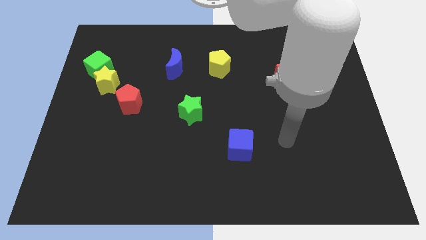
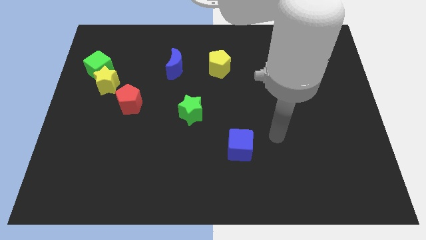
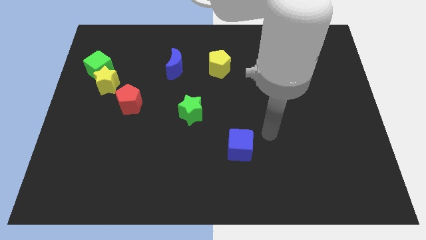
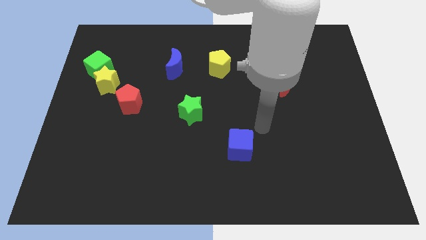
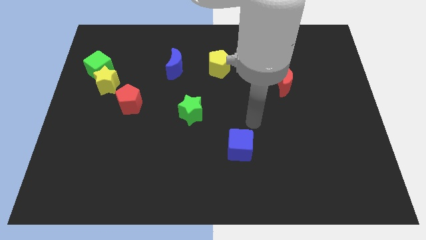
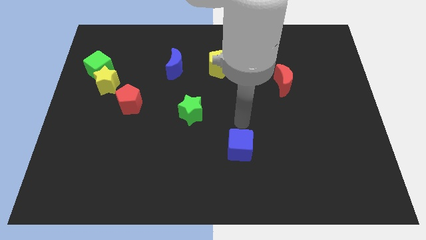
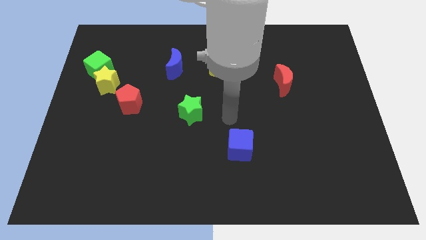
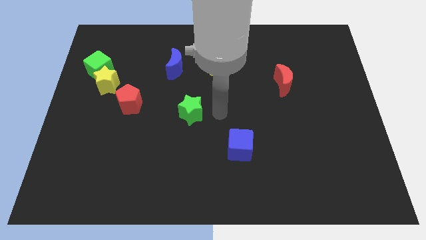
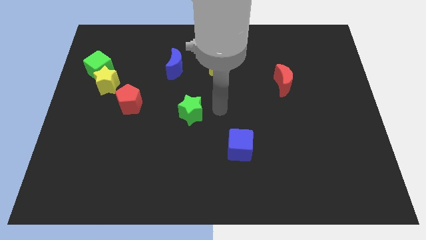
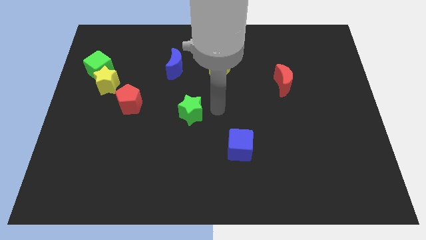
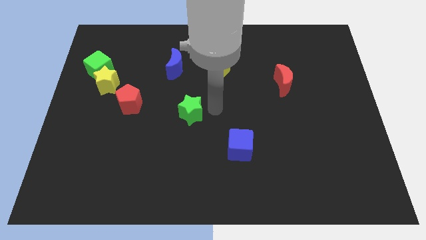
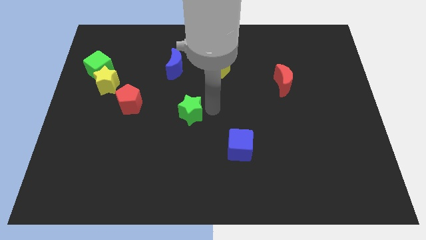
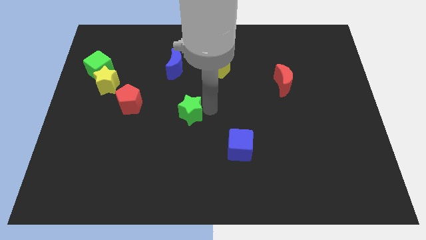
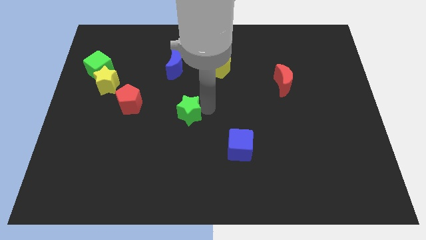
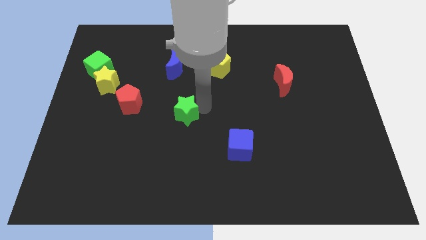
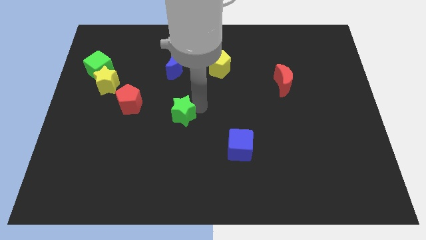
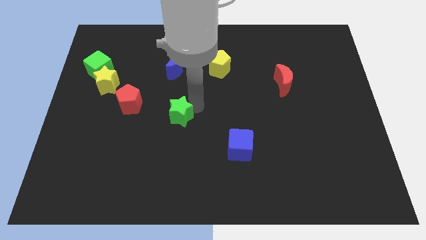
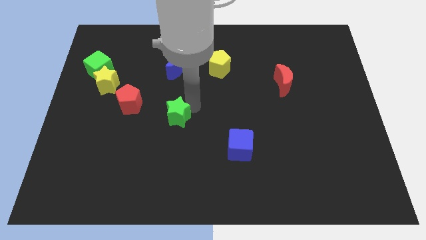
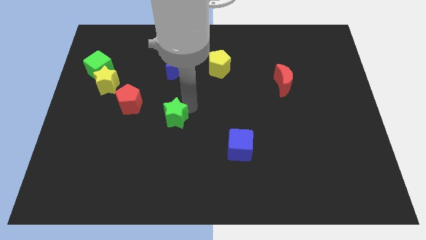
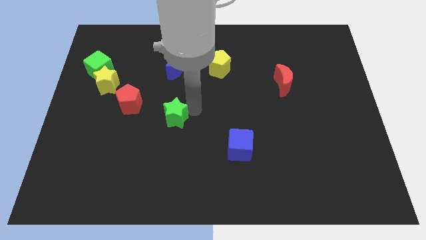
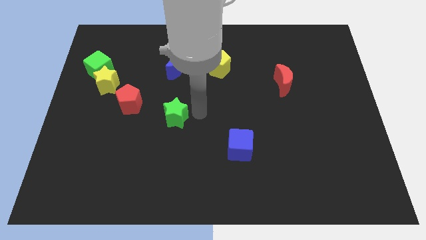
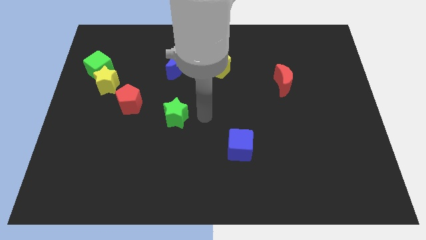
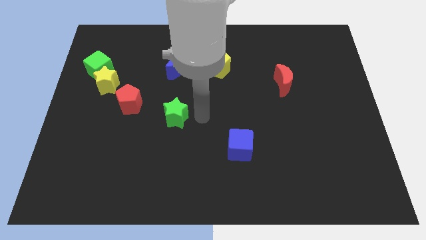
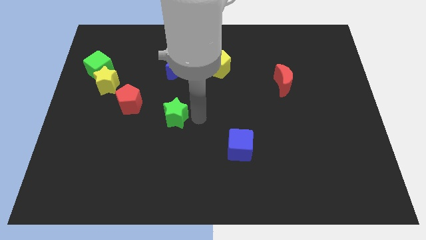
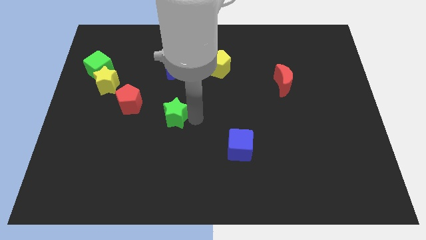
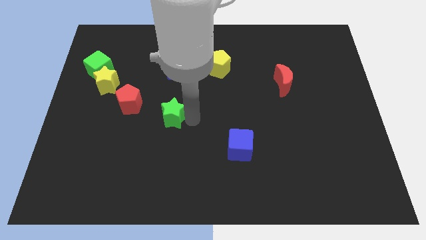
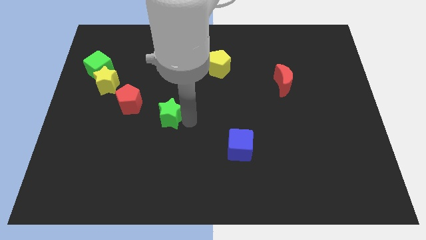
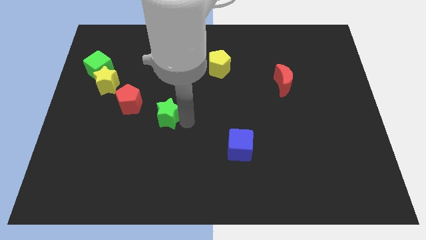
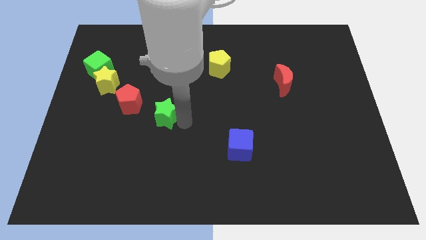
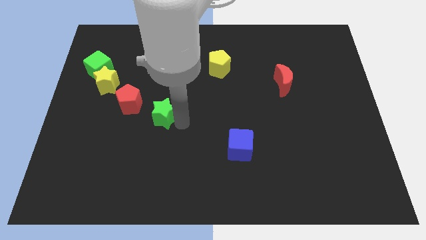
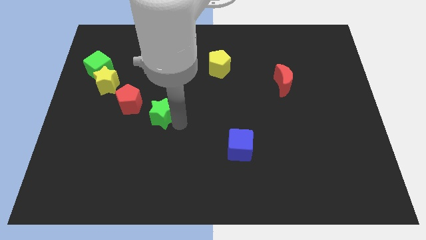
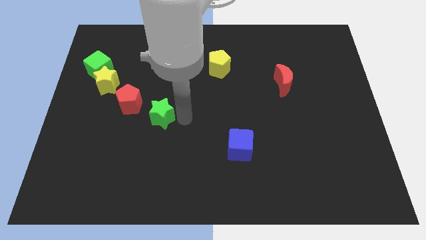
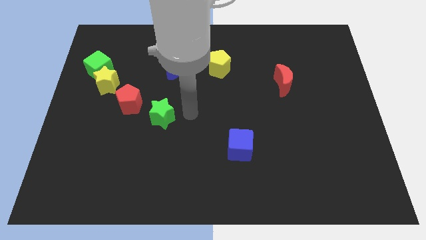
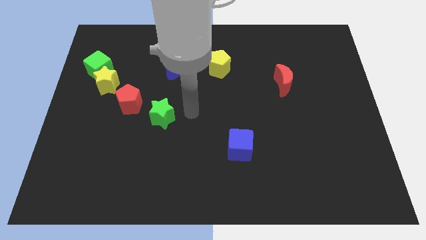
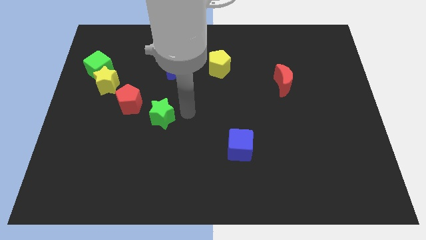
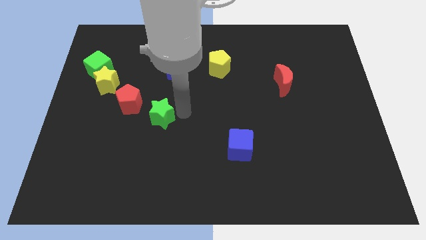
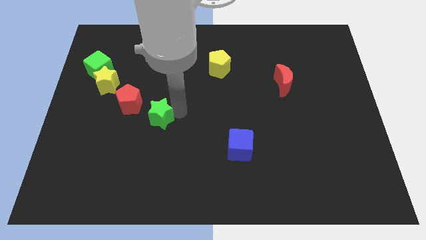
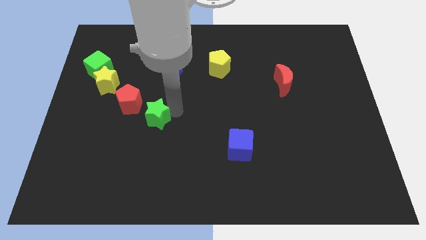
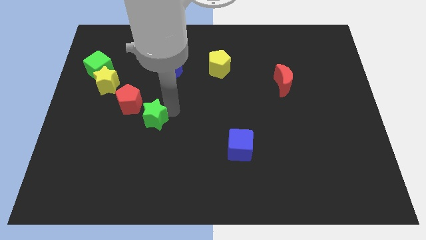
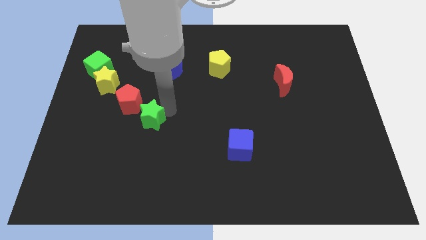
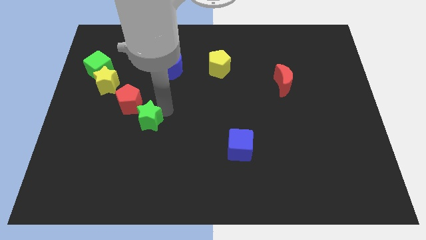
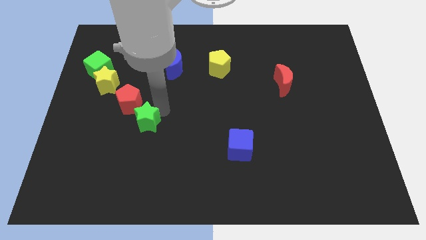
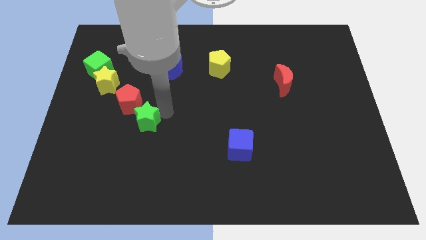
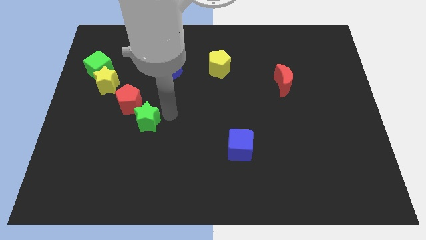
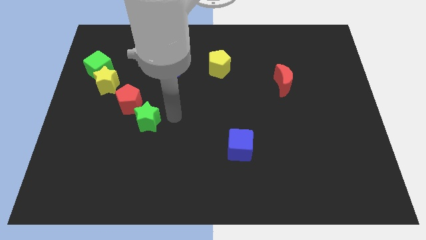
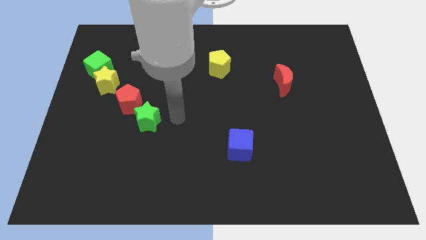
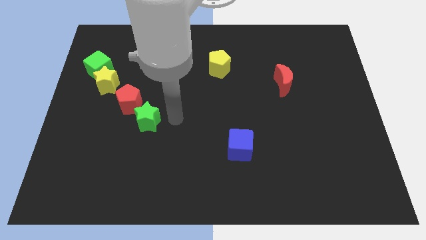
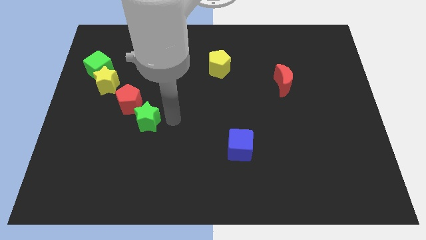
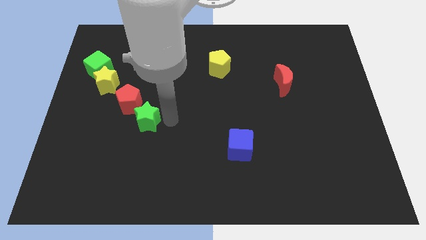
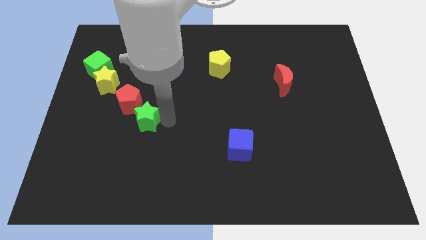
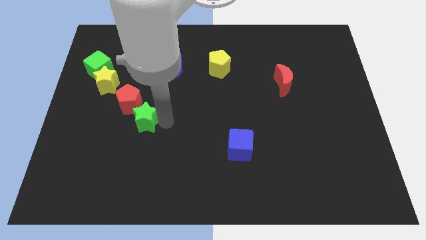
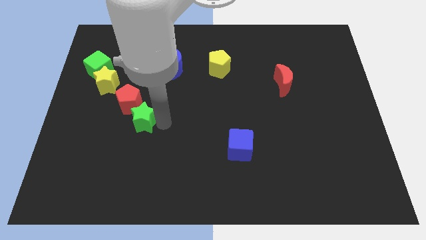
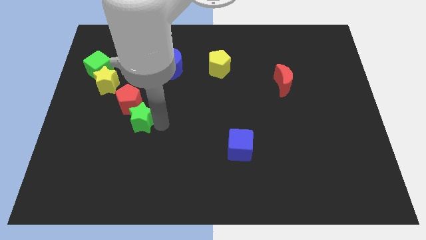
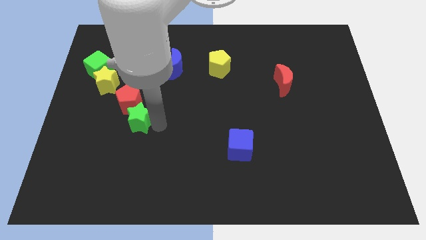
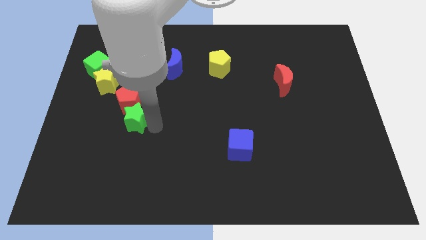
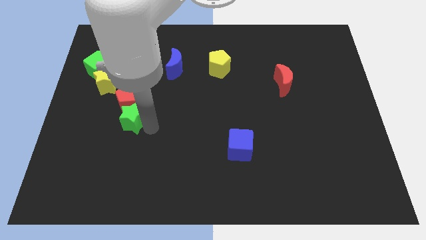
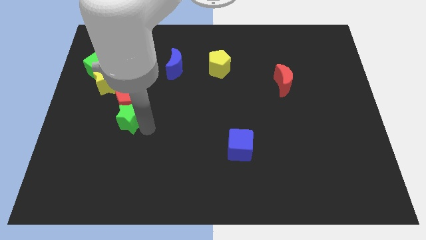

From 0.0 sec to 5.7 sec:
push the green star diagonally down and to the left of the red pentagon

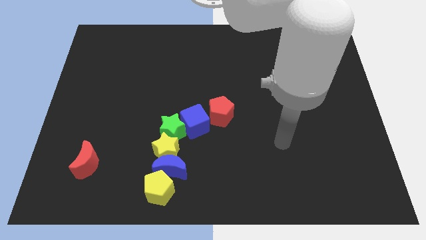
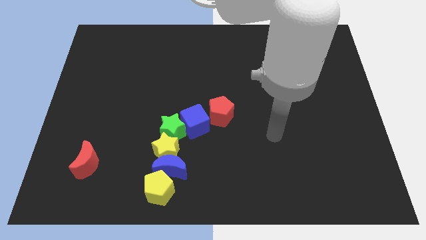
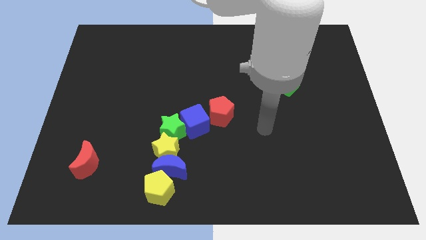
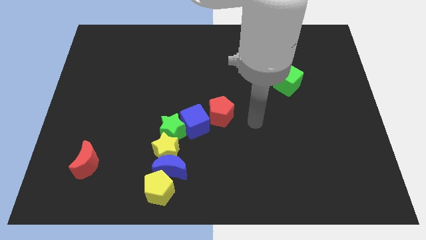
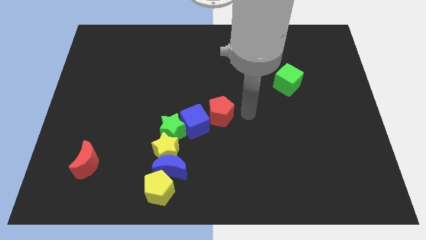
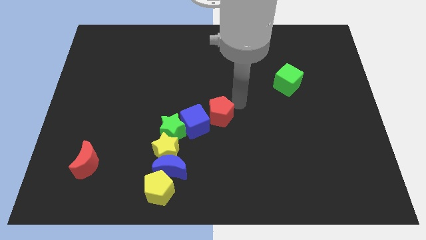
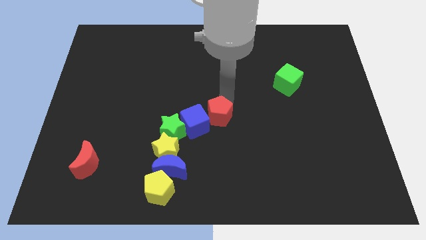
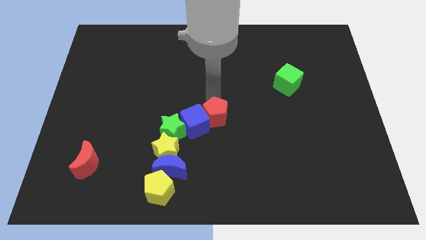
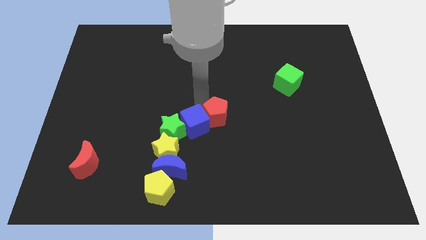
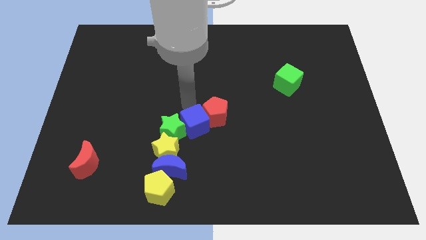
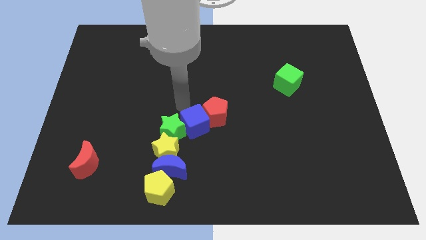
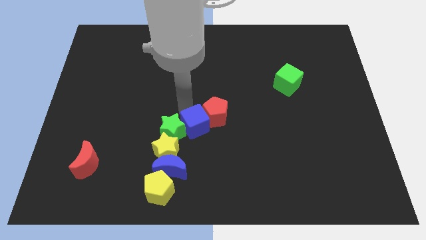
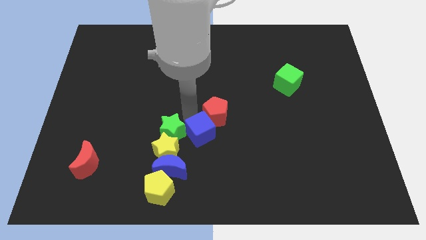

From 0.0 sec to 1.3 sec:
slide the blue cube below the red pentagon

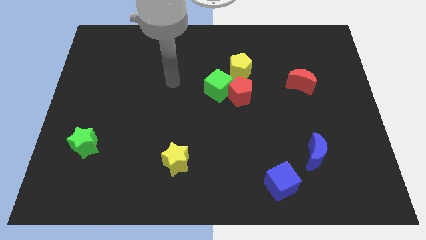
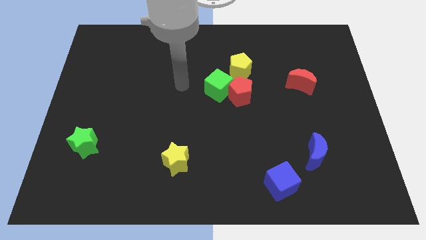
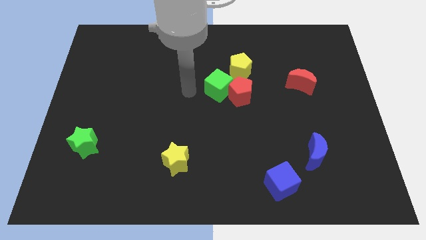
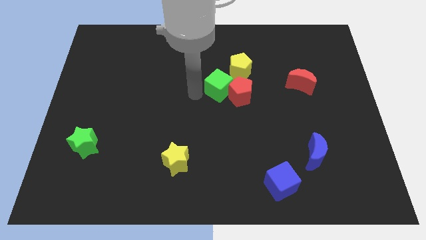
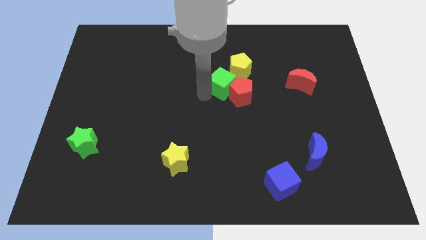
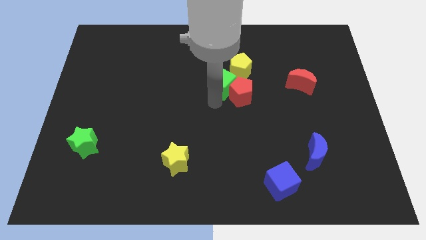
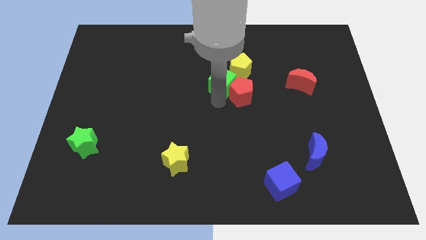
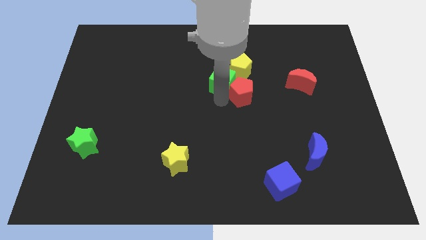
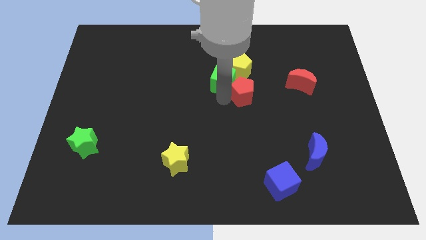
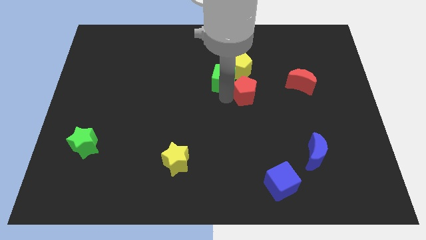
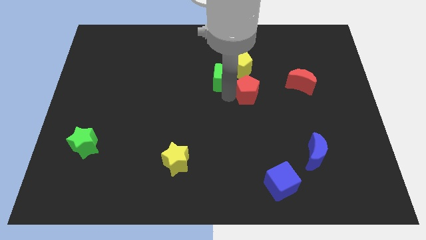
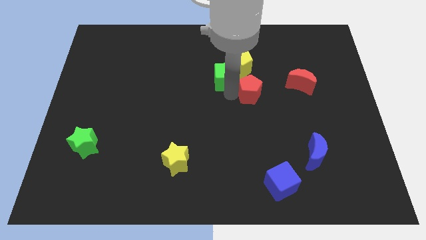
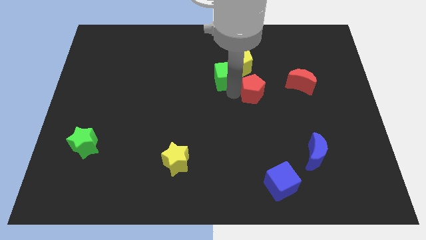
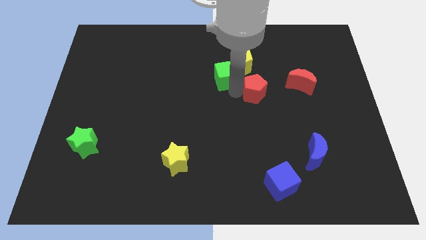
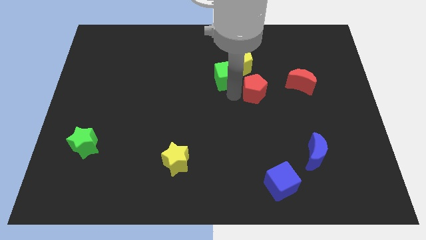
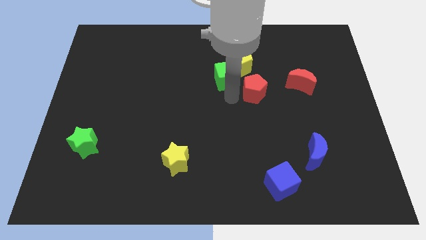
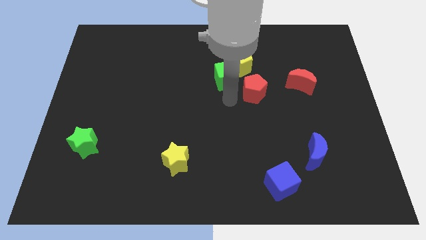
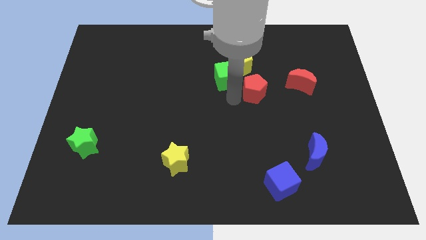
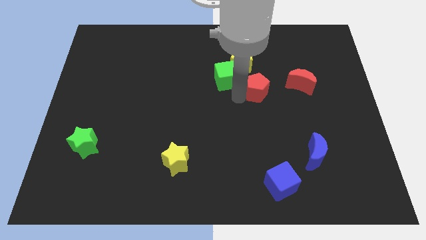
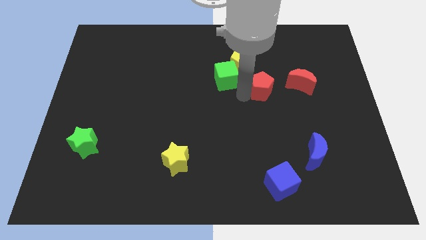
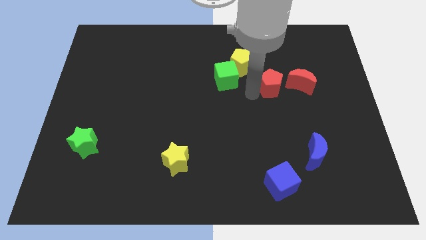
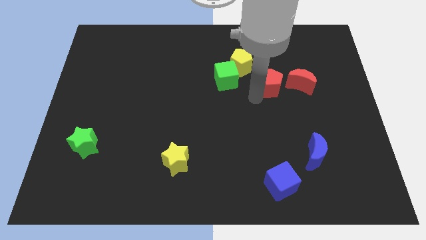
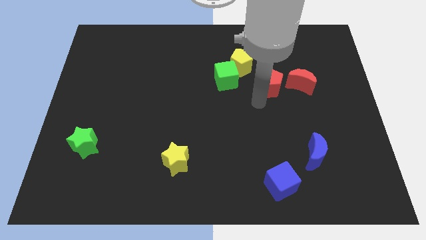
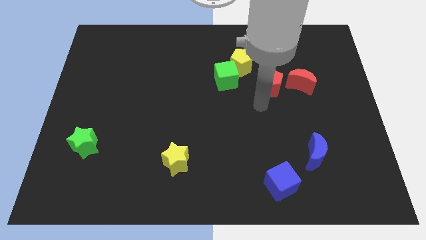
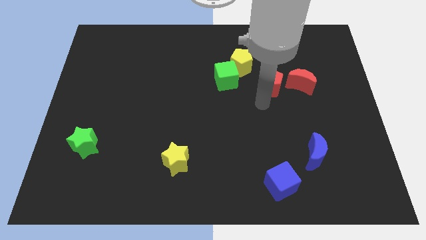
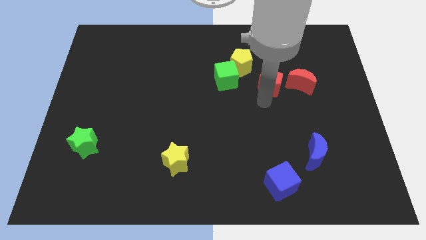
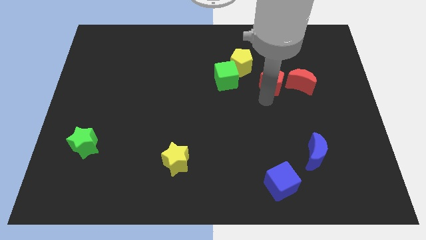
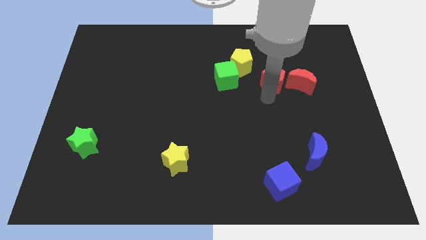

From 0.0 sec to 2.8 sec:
put the red pentagon to the top left of the red moon
